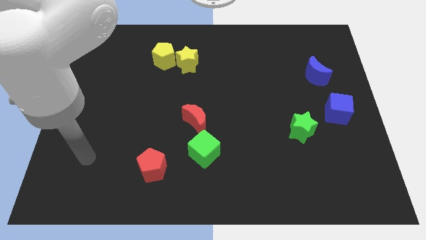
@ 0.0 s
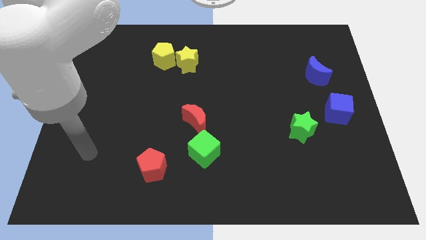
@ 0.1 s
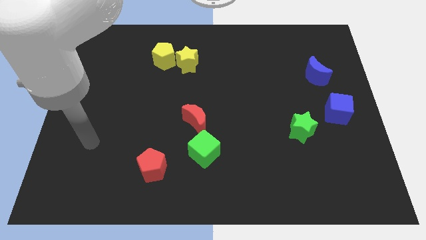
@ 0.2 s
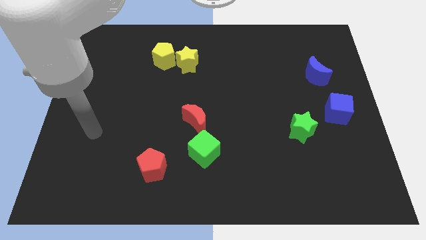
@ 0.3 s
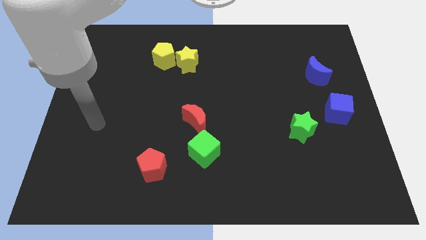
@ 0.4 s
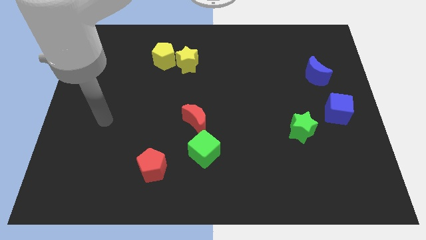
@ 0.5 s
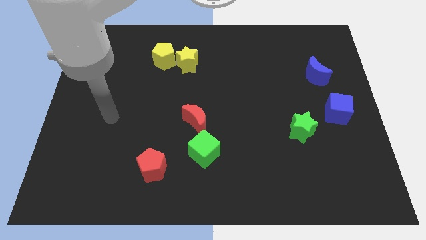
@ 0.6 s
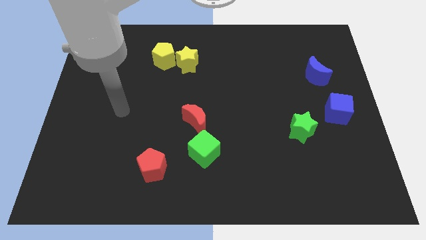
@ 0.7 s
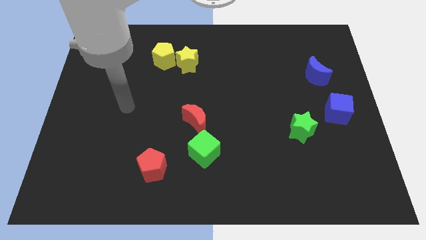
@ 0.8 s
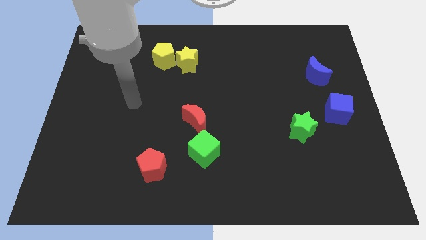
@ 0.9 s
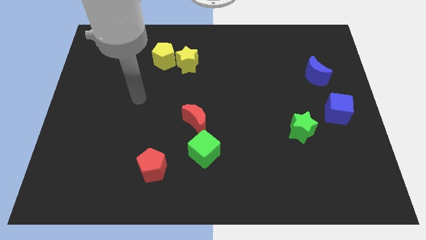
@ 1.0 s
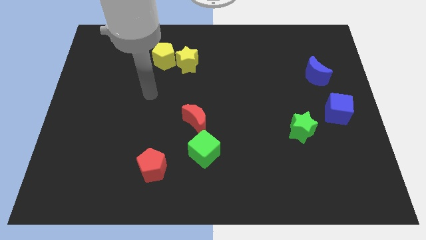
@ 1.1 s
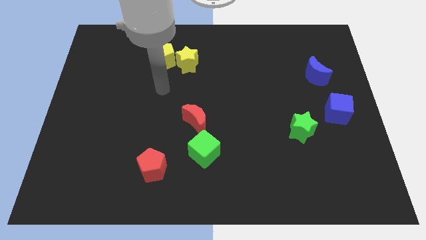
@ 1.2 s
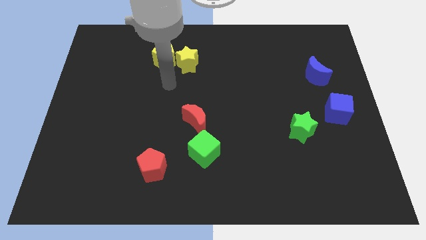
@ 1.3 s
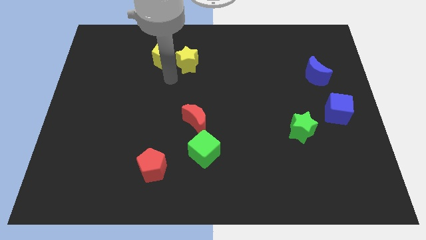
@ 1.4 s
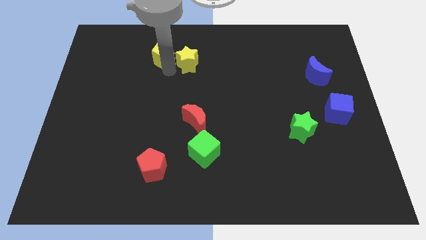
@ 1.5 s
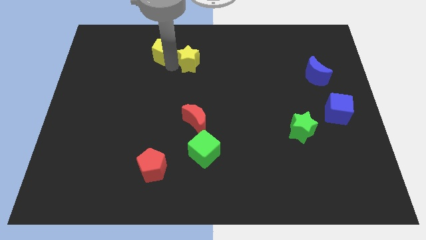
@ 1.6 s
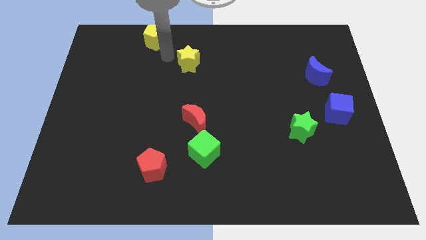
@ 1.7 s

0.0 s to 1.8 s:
move the yellow star away from the yellow pentagon

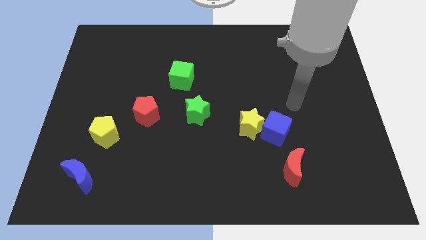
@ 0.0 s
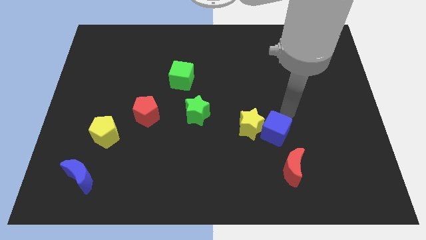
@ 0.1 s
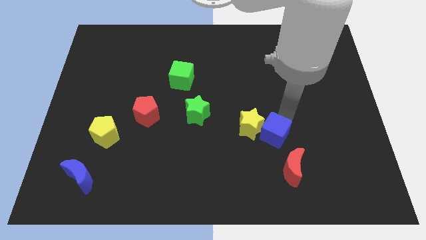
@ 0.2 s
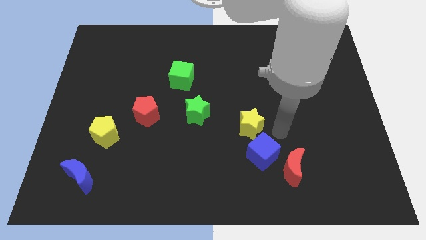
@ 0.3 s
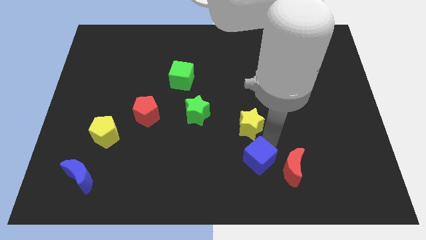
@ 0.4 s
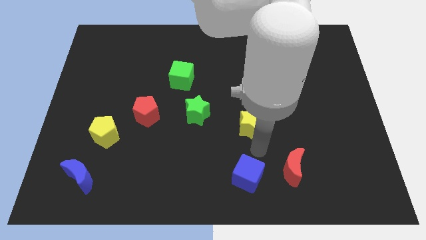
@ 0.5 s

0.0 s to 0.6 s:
pull the yellow star apart from the blue cube

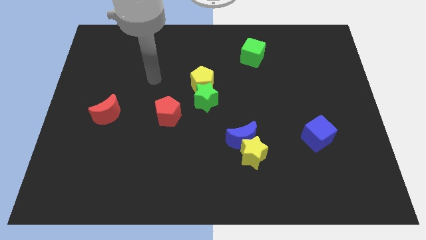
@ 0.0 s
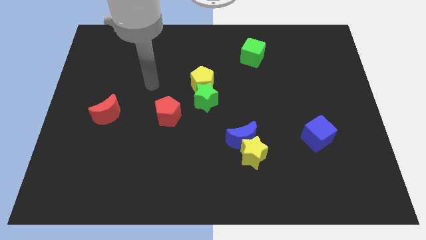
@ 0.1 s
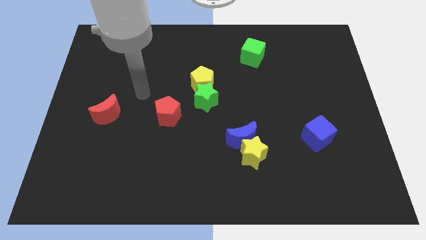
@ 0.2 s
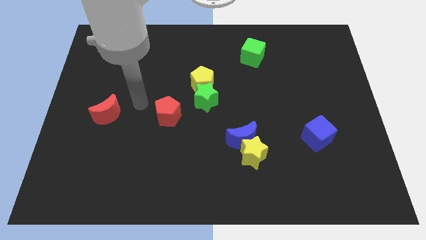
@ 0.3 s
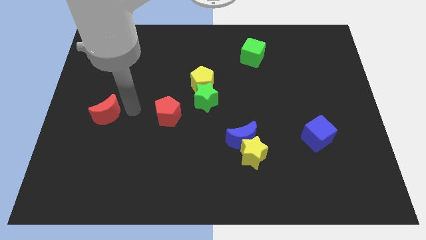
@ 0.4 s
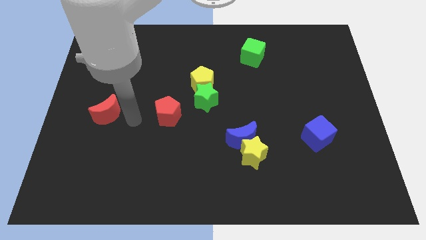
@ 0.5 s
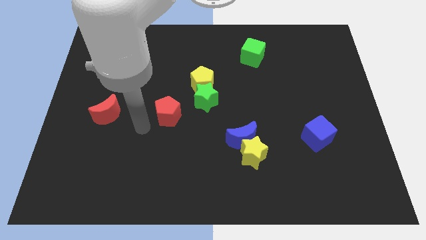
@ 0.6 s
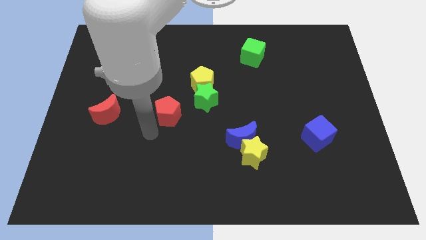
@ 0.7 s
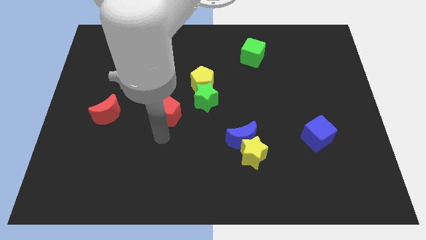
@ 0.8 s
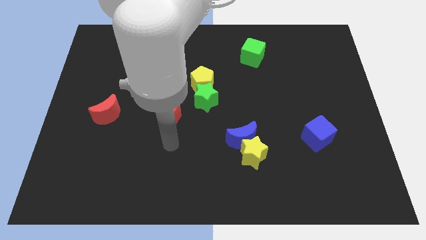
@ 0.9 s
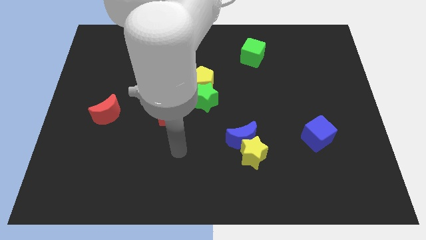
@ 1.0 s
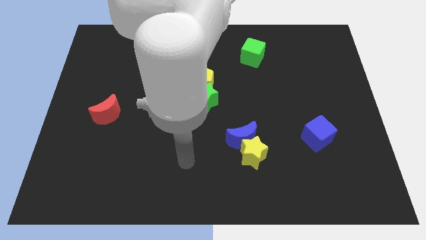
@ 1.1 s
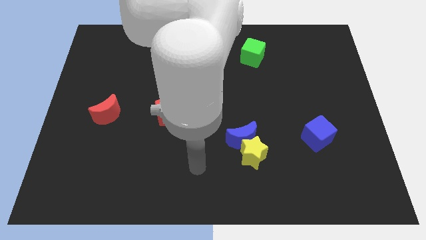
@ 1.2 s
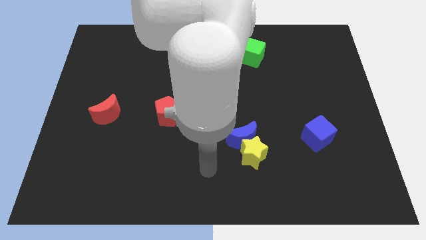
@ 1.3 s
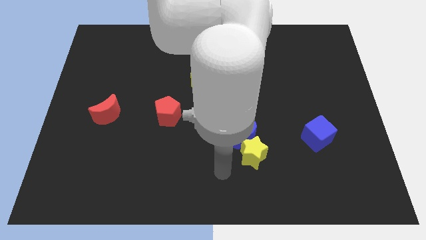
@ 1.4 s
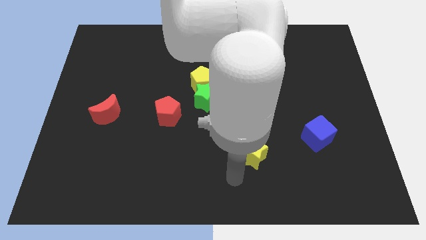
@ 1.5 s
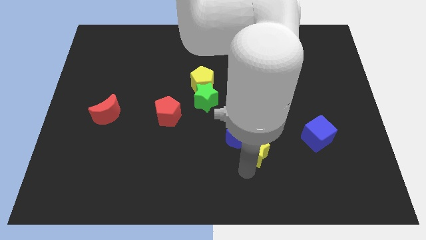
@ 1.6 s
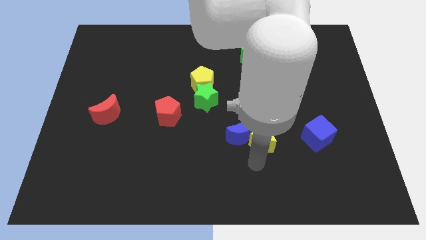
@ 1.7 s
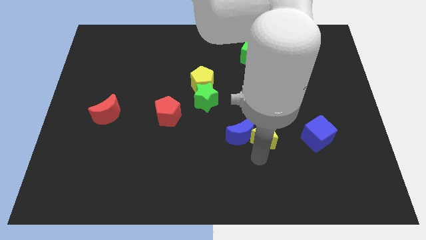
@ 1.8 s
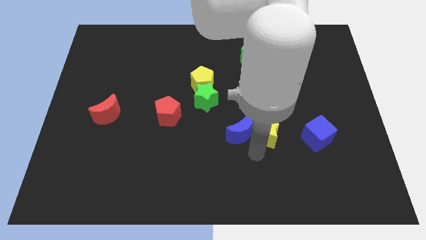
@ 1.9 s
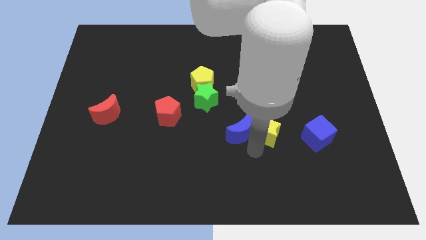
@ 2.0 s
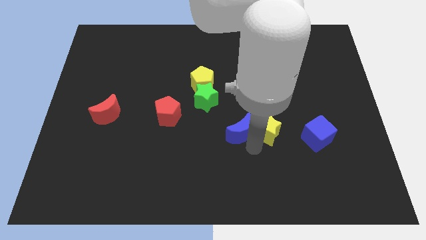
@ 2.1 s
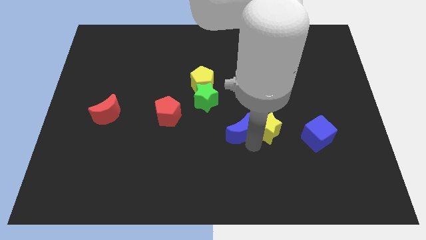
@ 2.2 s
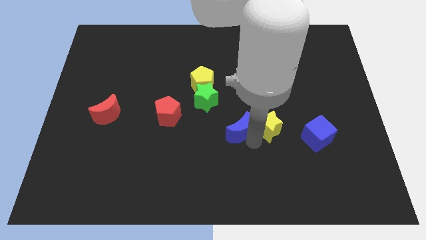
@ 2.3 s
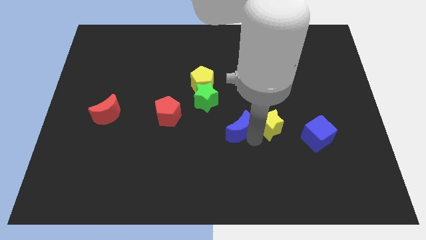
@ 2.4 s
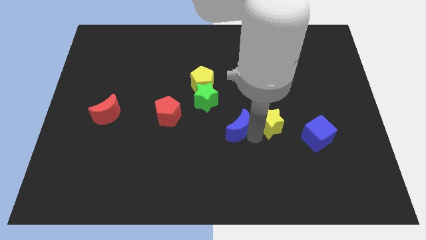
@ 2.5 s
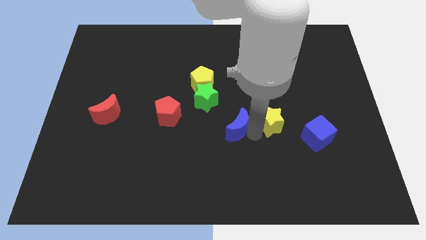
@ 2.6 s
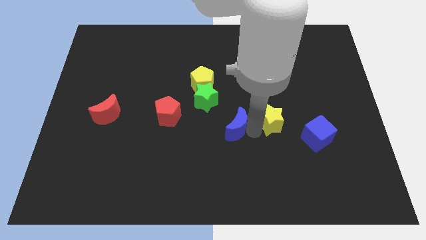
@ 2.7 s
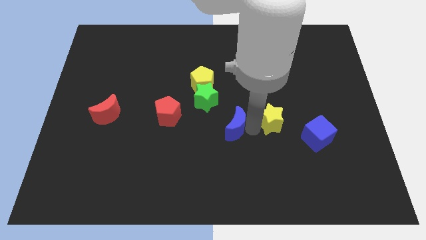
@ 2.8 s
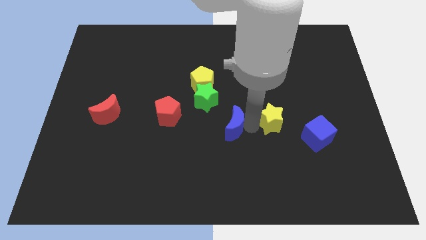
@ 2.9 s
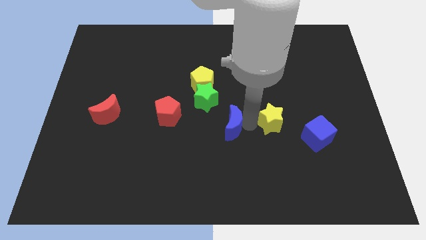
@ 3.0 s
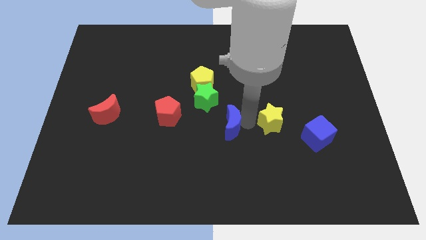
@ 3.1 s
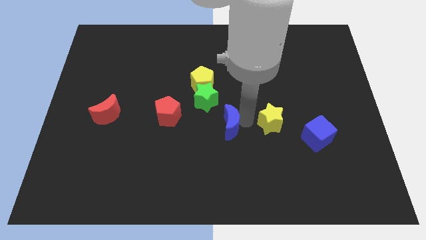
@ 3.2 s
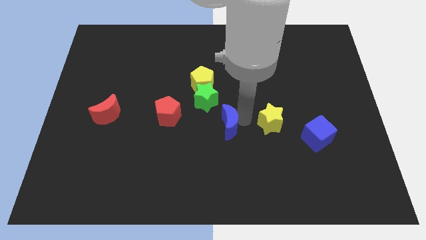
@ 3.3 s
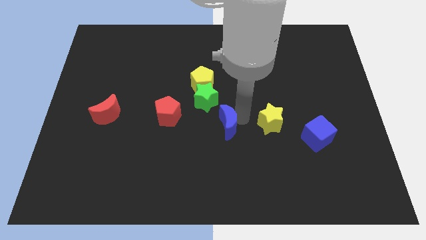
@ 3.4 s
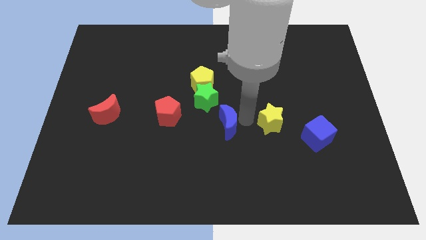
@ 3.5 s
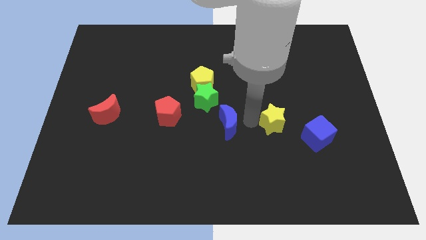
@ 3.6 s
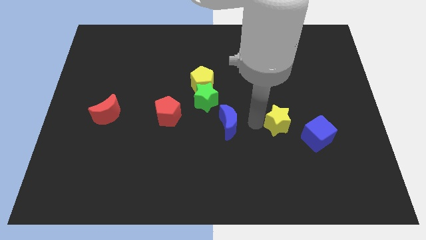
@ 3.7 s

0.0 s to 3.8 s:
move the blue moon away from the yellow star

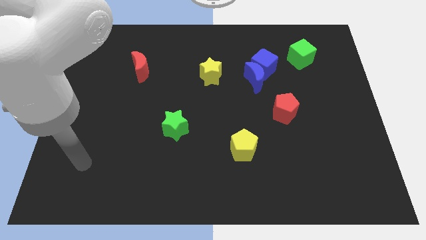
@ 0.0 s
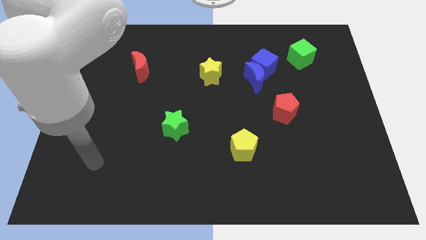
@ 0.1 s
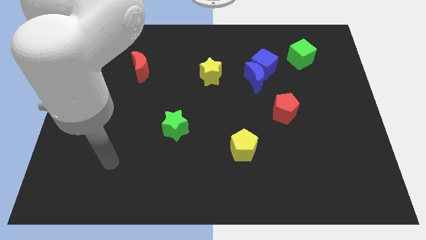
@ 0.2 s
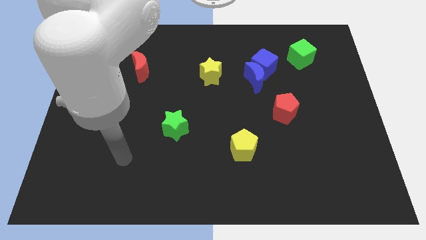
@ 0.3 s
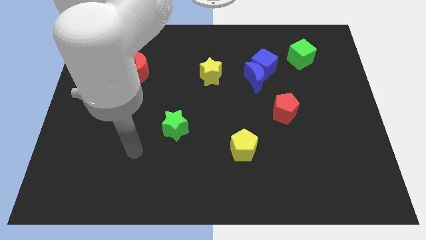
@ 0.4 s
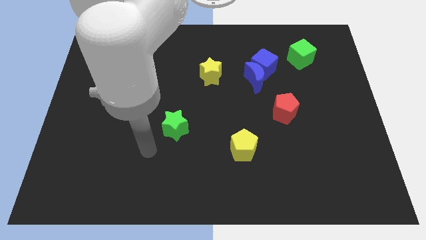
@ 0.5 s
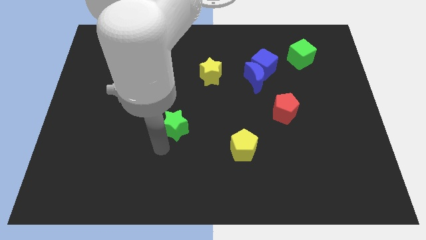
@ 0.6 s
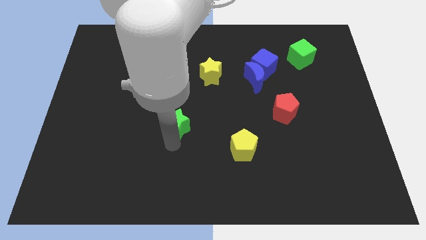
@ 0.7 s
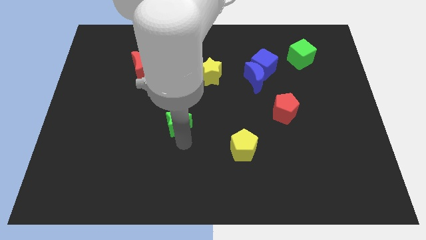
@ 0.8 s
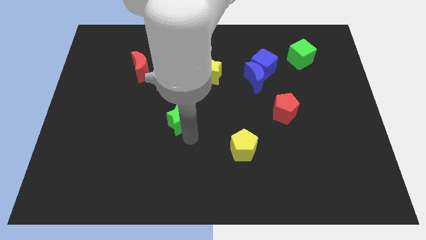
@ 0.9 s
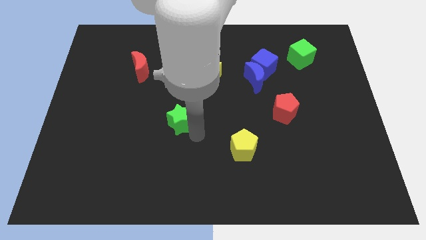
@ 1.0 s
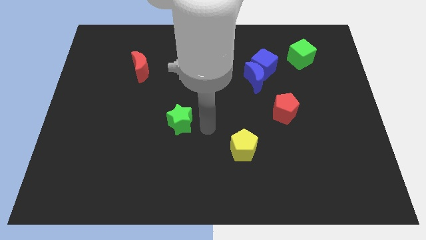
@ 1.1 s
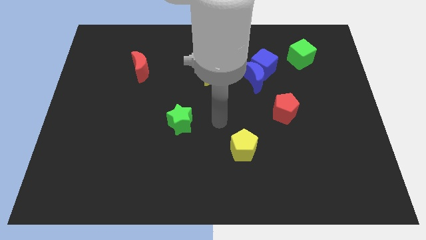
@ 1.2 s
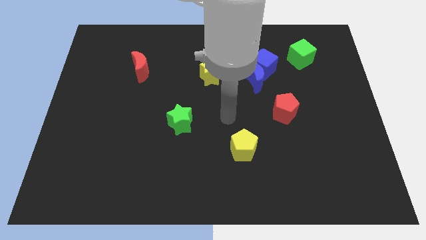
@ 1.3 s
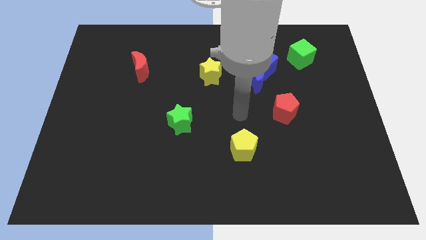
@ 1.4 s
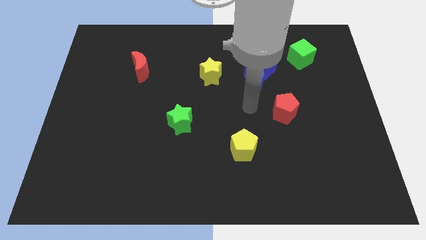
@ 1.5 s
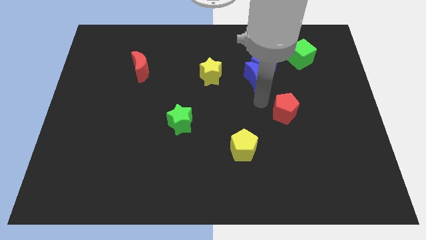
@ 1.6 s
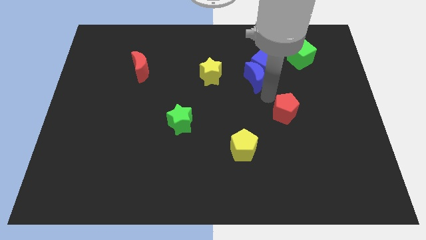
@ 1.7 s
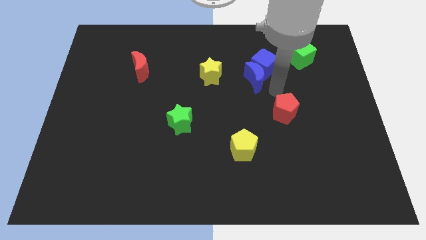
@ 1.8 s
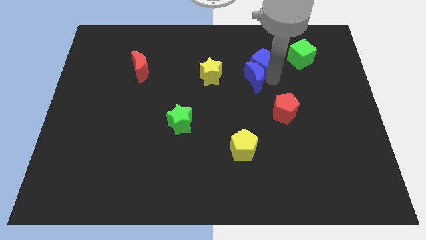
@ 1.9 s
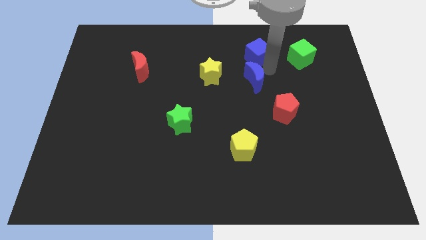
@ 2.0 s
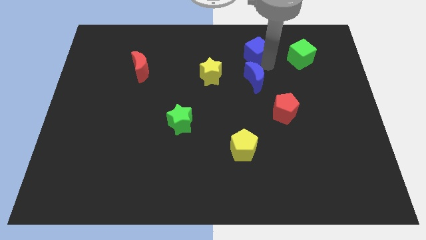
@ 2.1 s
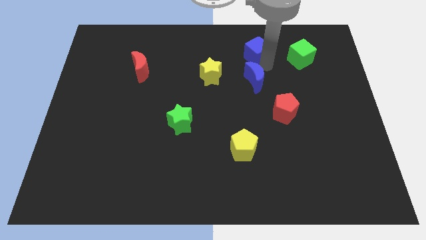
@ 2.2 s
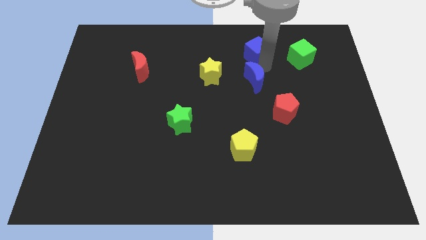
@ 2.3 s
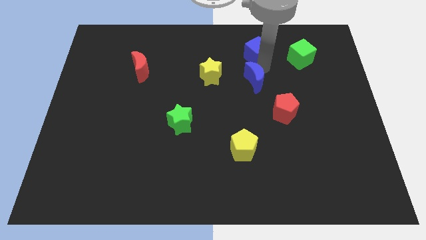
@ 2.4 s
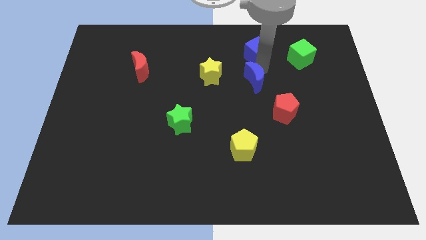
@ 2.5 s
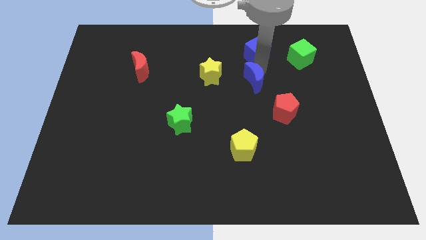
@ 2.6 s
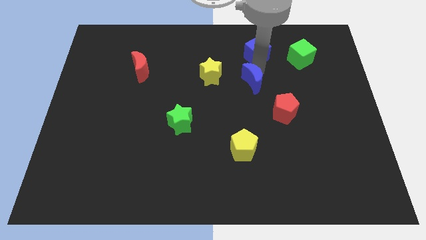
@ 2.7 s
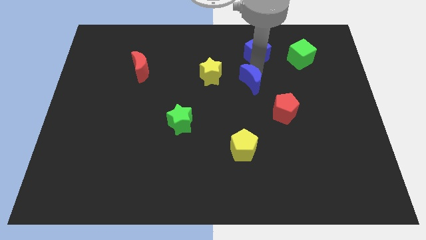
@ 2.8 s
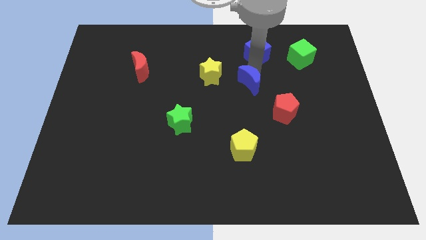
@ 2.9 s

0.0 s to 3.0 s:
separate the blue moon from the blue cube
